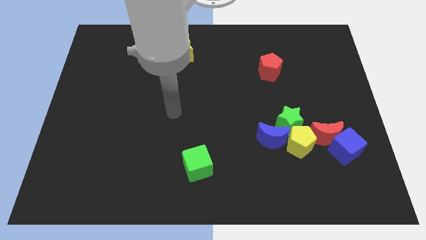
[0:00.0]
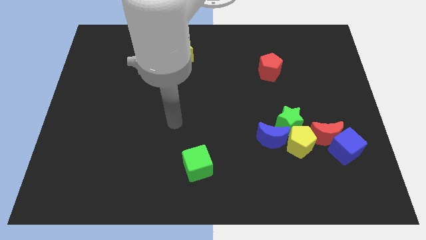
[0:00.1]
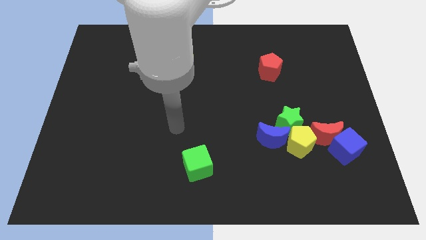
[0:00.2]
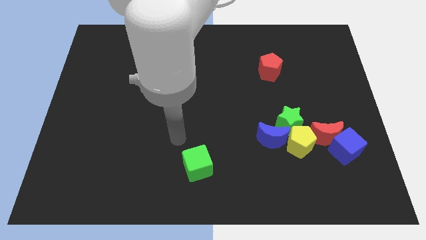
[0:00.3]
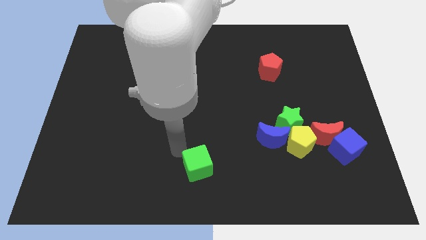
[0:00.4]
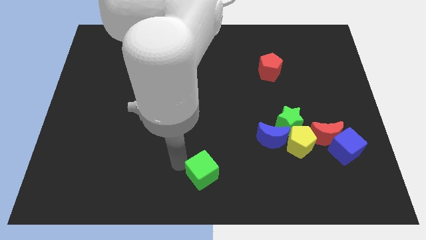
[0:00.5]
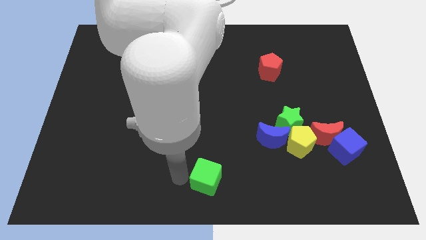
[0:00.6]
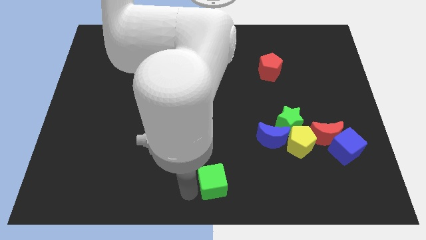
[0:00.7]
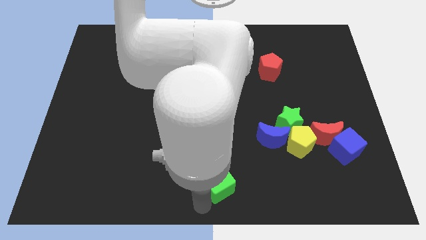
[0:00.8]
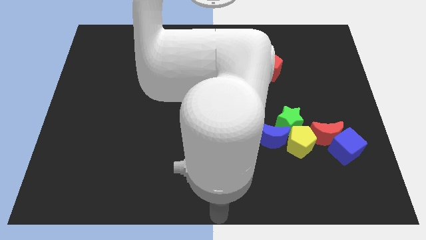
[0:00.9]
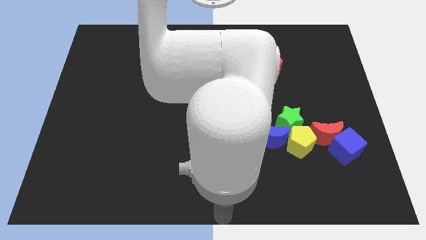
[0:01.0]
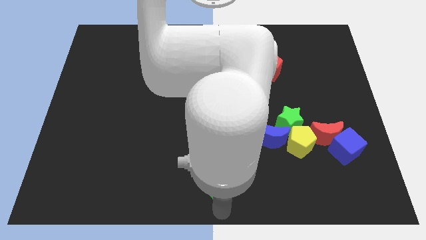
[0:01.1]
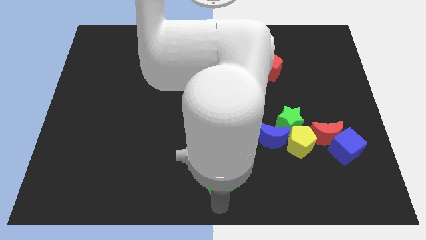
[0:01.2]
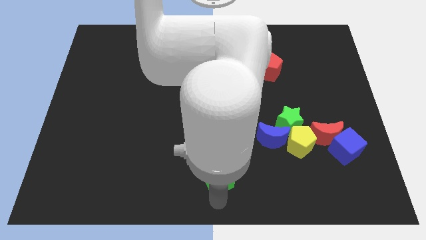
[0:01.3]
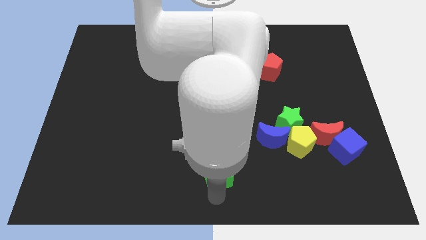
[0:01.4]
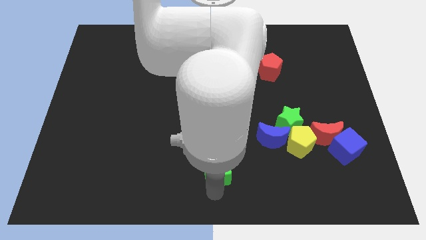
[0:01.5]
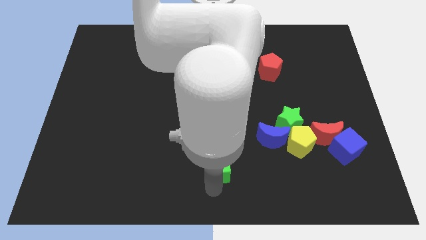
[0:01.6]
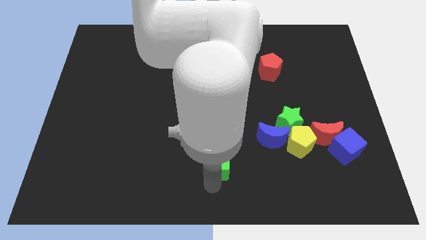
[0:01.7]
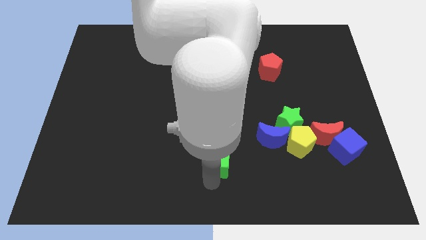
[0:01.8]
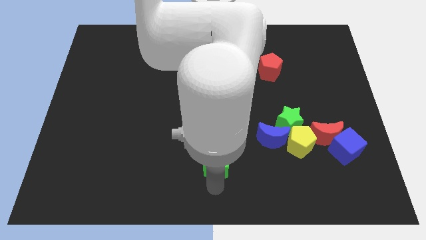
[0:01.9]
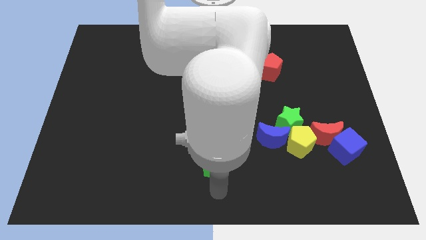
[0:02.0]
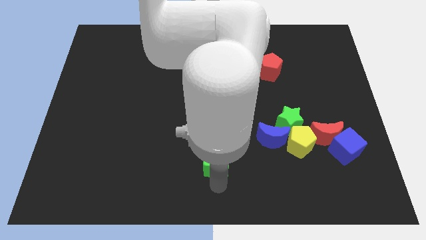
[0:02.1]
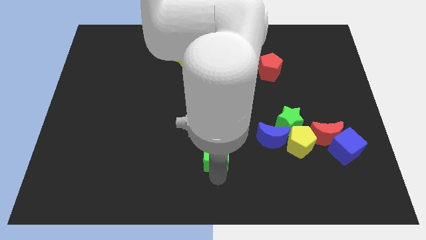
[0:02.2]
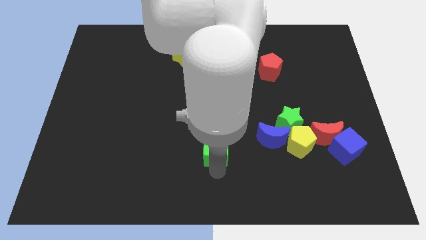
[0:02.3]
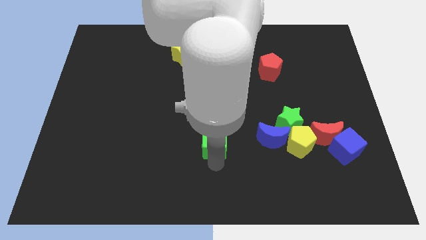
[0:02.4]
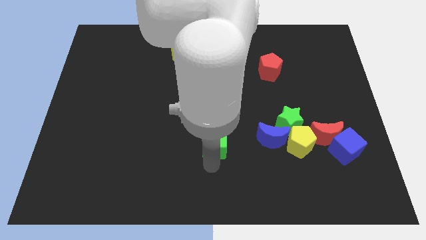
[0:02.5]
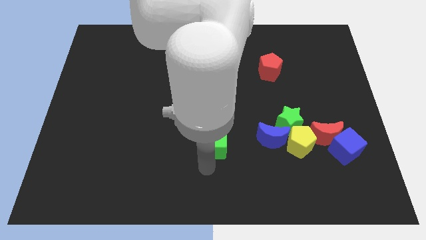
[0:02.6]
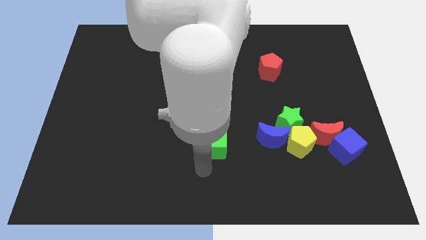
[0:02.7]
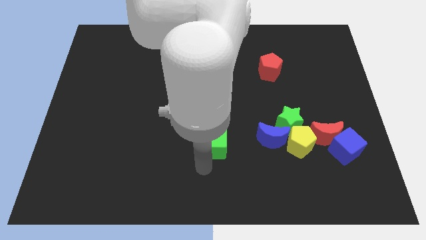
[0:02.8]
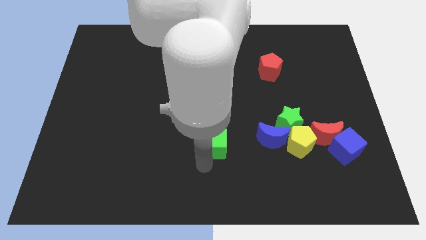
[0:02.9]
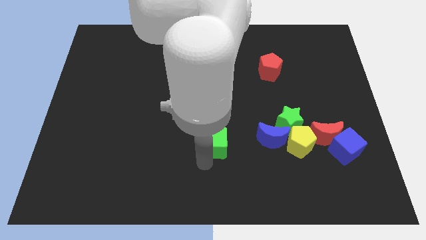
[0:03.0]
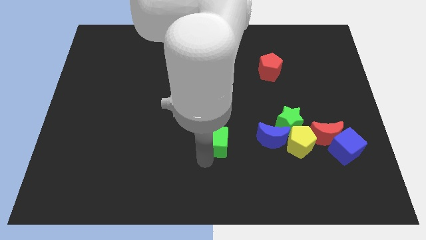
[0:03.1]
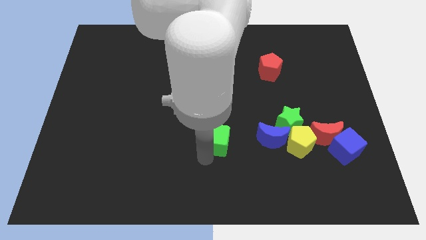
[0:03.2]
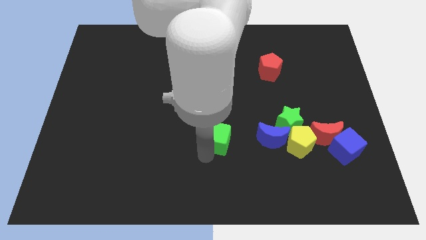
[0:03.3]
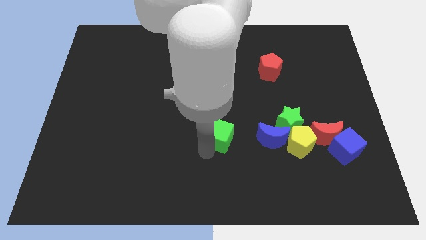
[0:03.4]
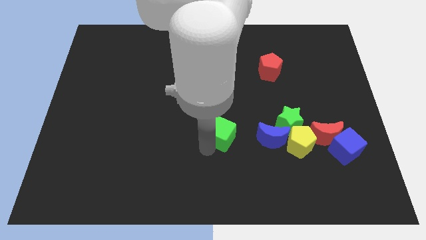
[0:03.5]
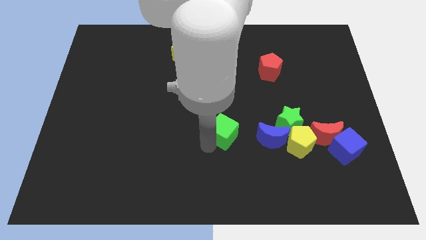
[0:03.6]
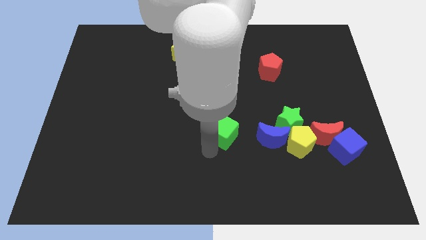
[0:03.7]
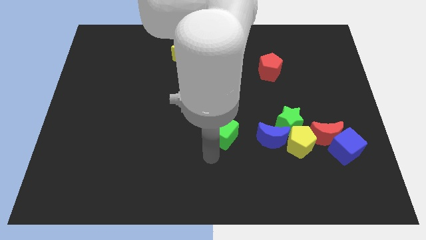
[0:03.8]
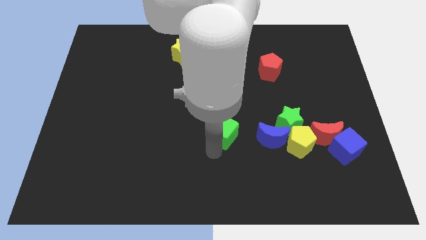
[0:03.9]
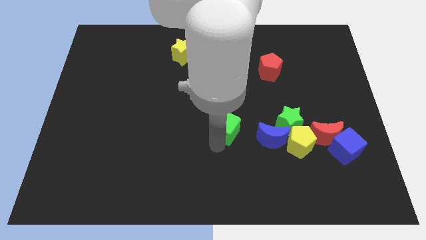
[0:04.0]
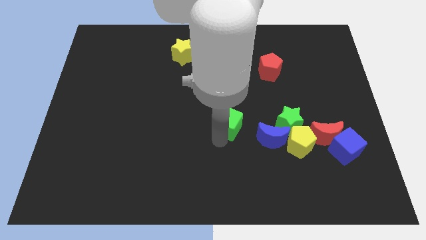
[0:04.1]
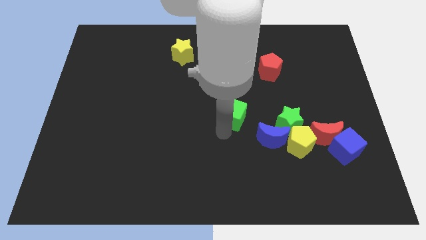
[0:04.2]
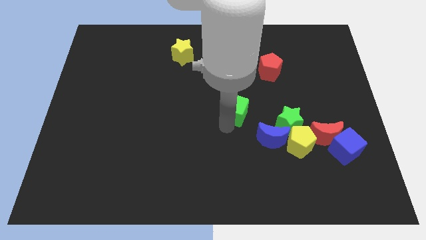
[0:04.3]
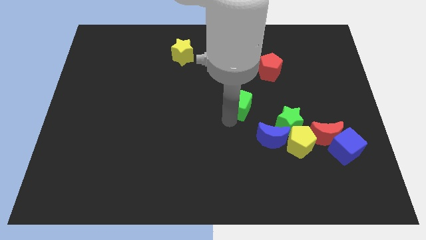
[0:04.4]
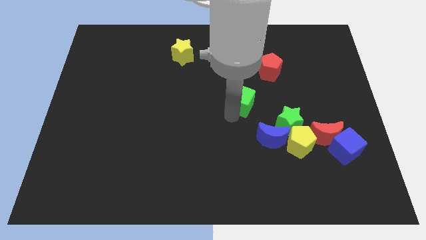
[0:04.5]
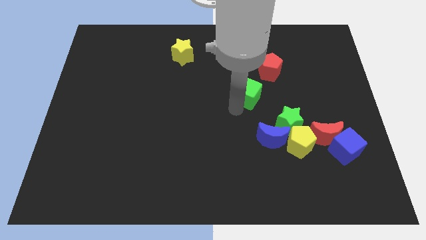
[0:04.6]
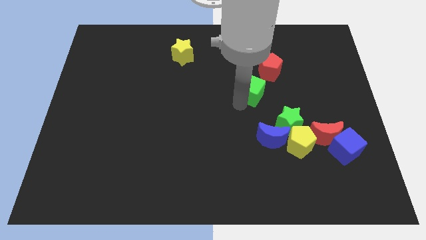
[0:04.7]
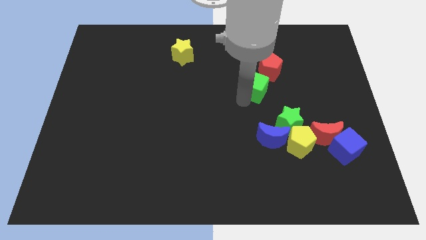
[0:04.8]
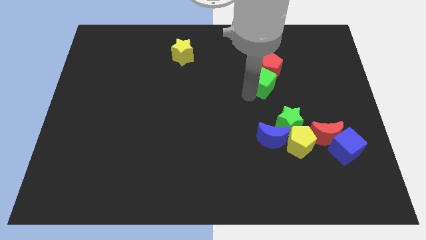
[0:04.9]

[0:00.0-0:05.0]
put the green cube to the red pentagon

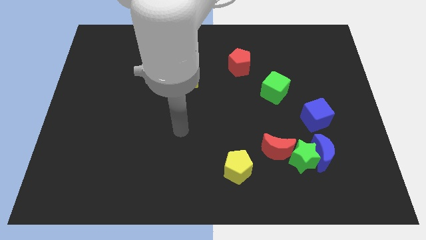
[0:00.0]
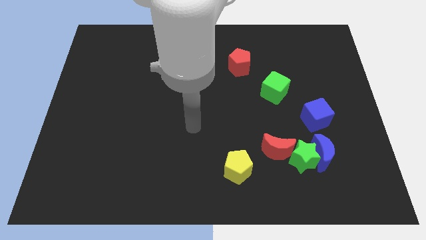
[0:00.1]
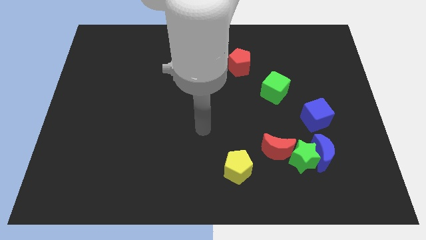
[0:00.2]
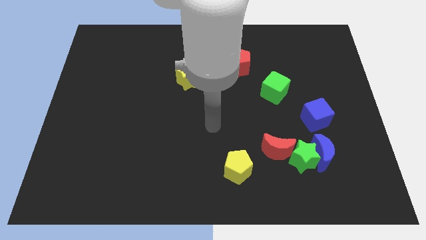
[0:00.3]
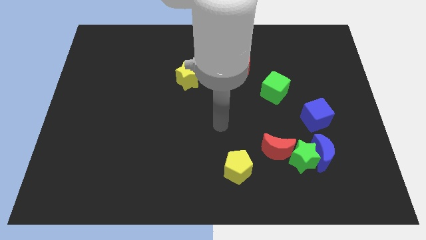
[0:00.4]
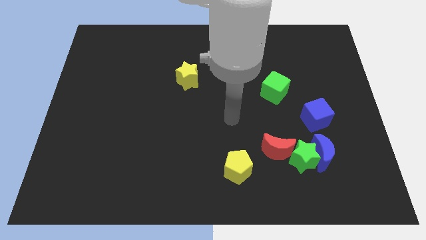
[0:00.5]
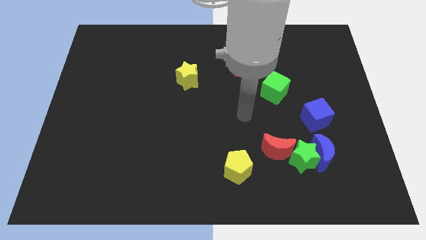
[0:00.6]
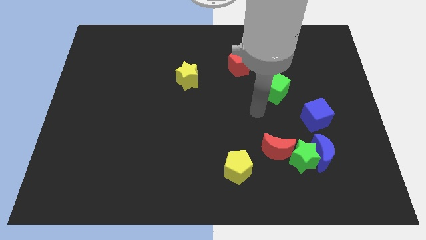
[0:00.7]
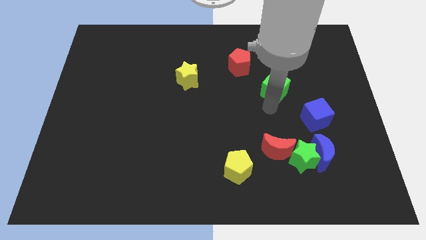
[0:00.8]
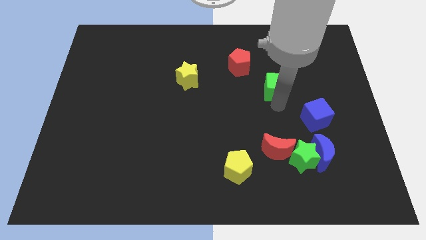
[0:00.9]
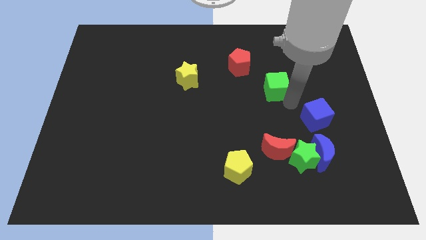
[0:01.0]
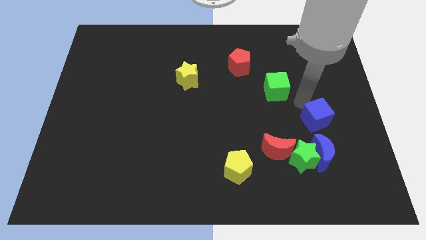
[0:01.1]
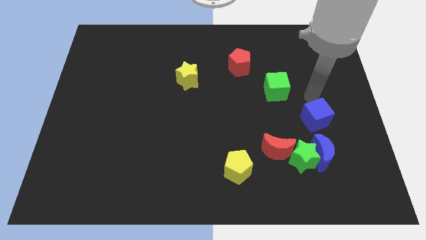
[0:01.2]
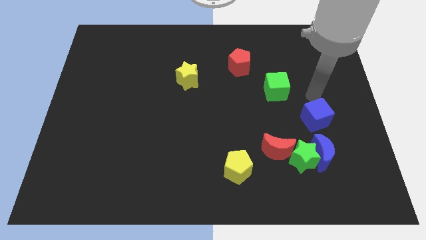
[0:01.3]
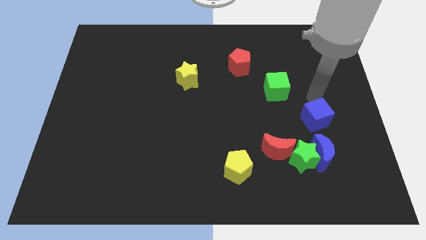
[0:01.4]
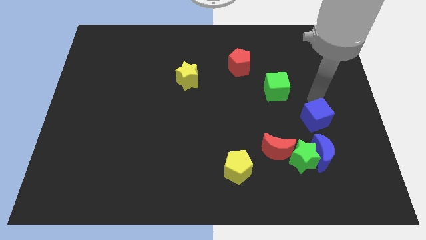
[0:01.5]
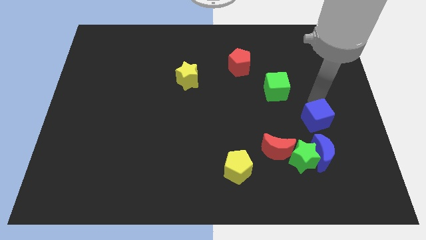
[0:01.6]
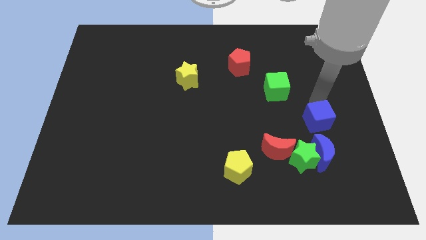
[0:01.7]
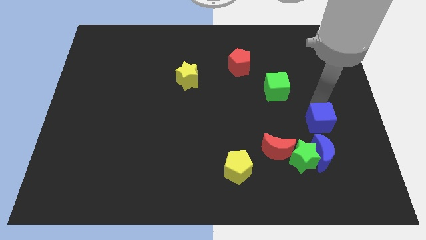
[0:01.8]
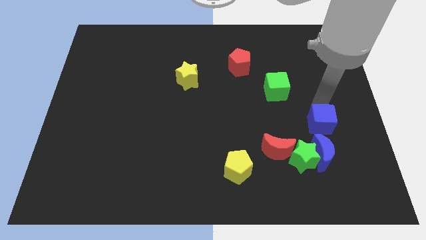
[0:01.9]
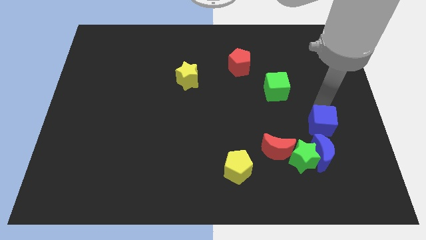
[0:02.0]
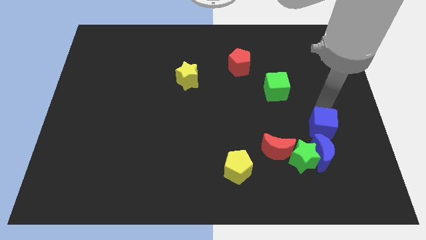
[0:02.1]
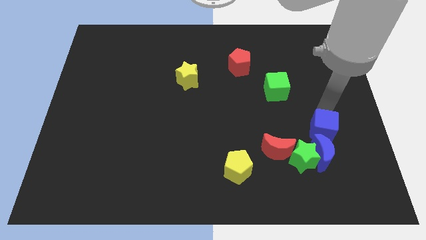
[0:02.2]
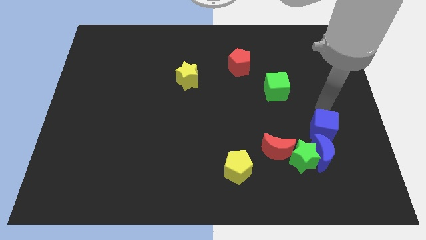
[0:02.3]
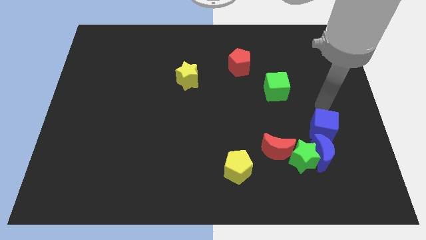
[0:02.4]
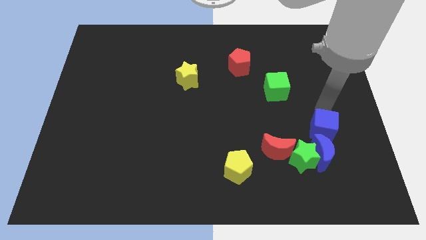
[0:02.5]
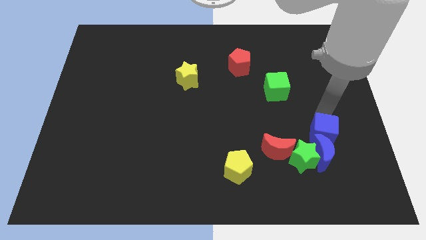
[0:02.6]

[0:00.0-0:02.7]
put the blue cube close to the blue moon

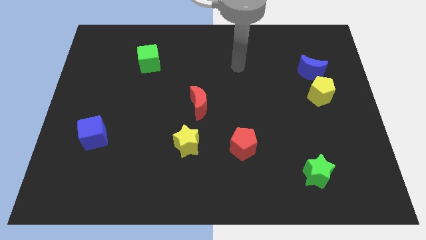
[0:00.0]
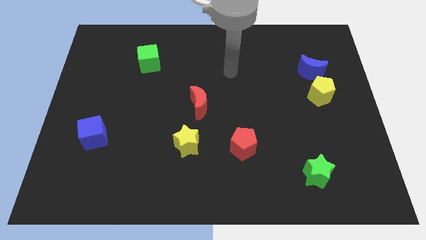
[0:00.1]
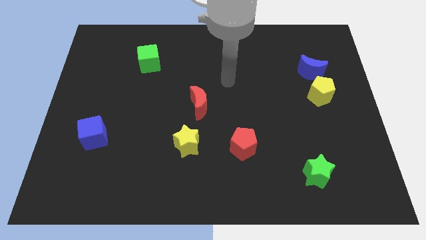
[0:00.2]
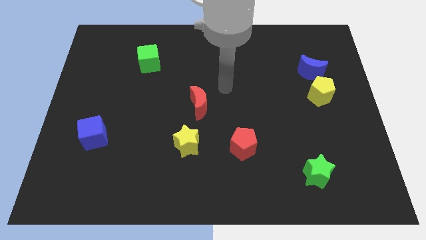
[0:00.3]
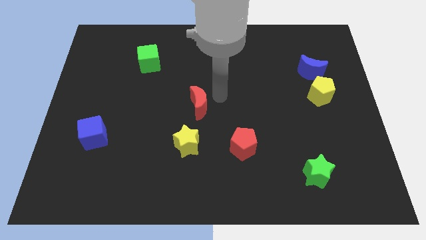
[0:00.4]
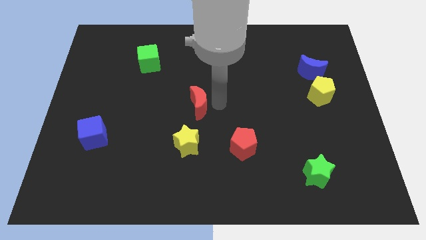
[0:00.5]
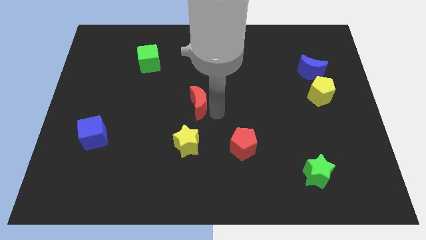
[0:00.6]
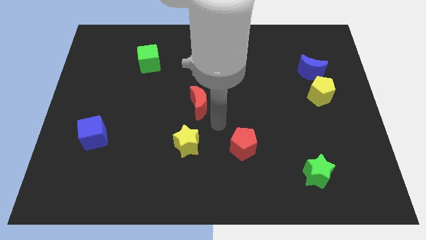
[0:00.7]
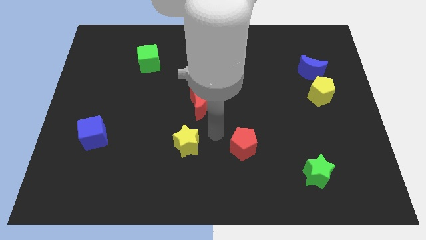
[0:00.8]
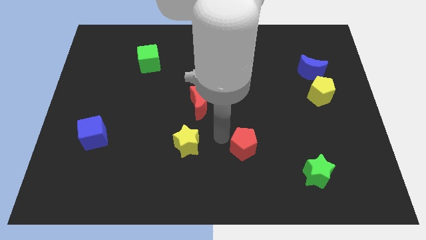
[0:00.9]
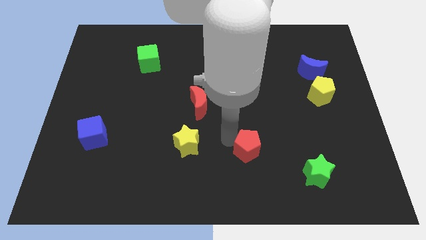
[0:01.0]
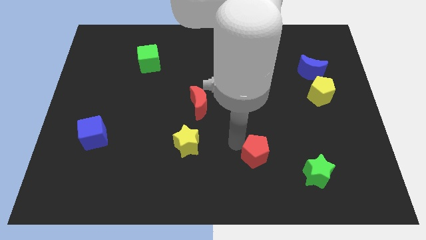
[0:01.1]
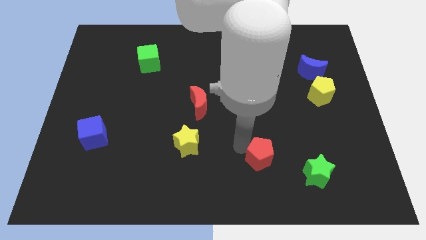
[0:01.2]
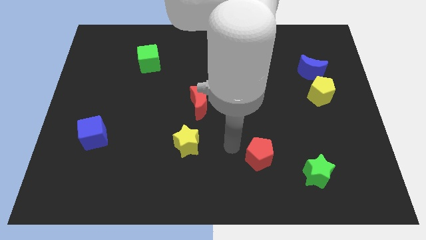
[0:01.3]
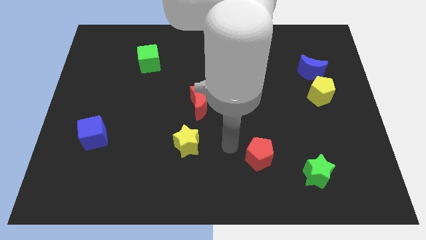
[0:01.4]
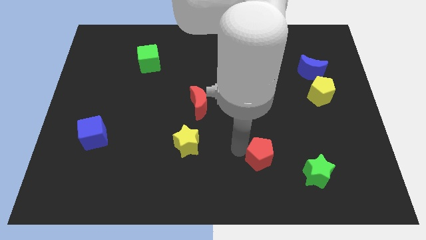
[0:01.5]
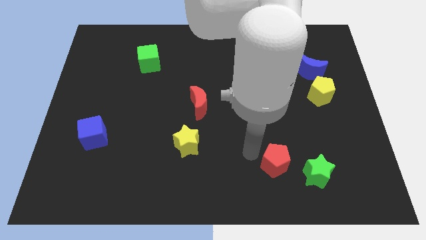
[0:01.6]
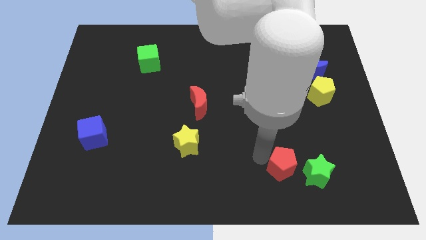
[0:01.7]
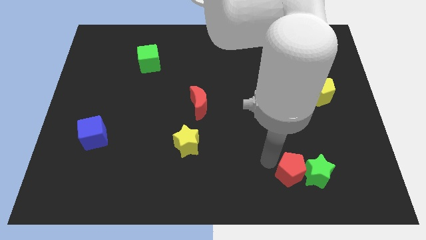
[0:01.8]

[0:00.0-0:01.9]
put the red pentagon to the green star
